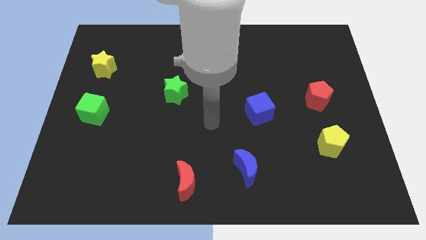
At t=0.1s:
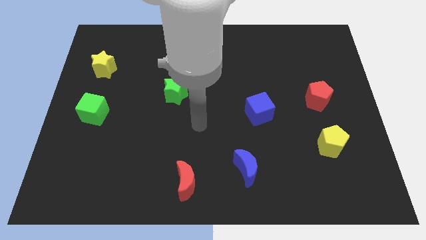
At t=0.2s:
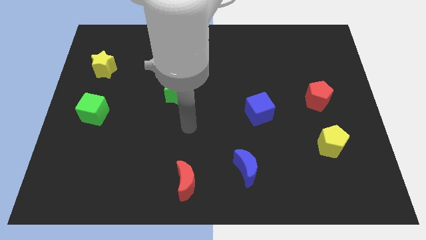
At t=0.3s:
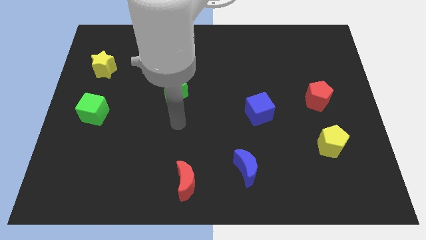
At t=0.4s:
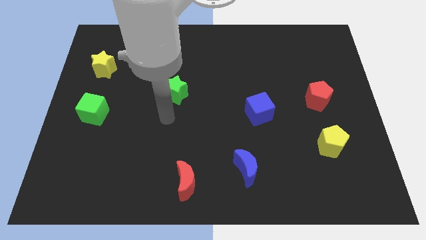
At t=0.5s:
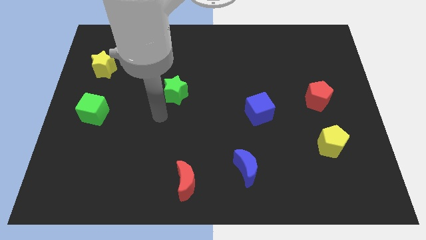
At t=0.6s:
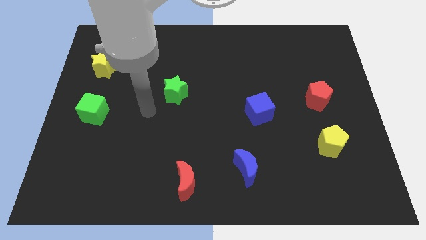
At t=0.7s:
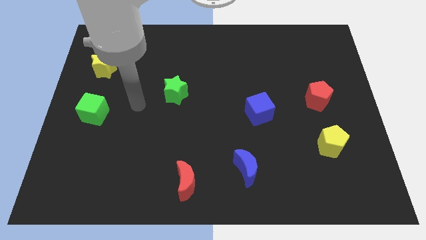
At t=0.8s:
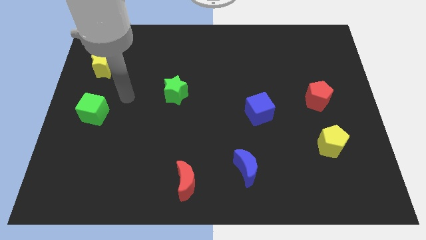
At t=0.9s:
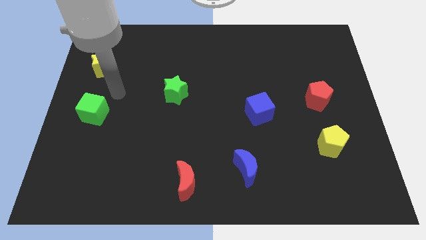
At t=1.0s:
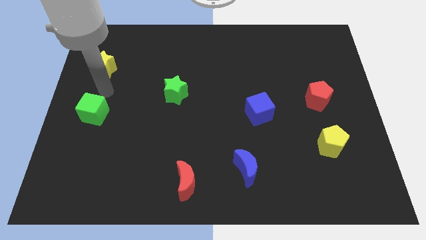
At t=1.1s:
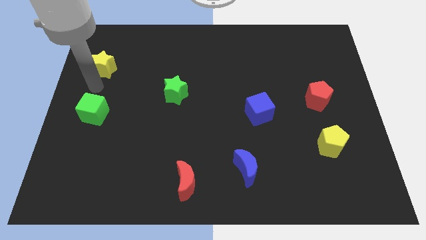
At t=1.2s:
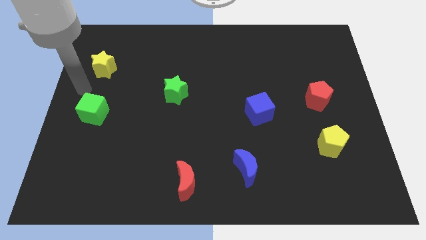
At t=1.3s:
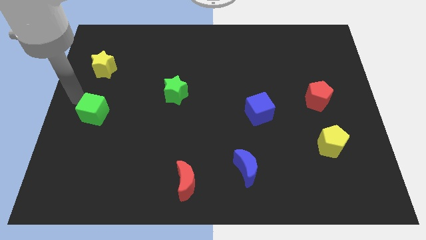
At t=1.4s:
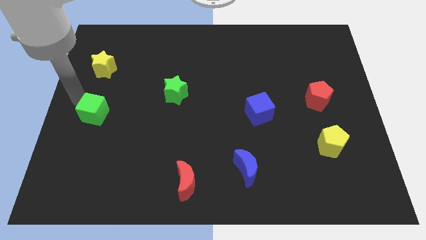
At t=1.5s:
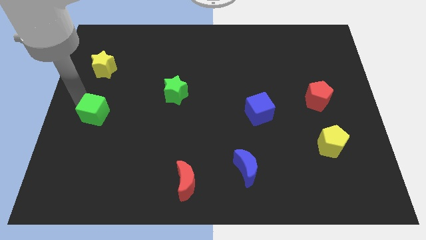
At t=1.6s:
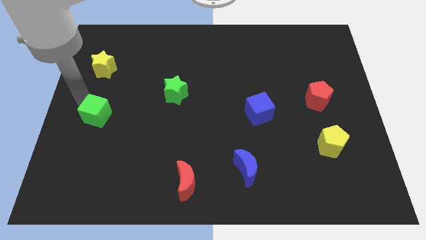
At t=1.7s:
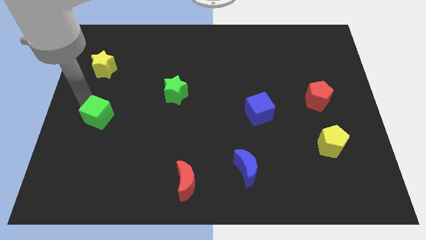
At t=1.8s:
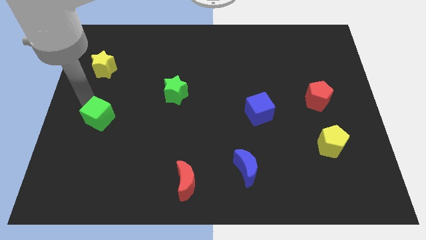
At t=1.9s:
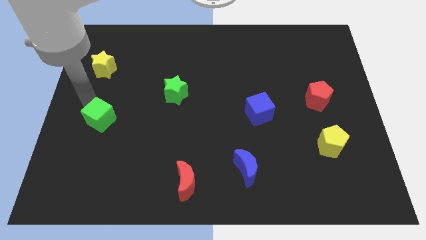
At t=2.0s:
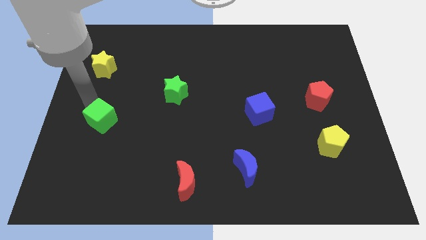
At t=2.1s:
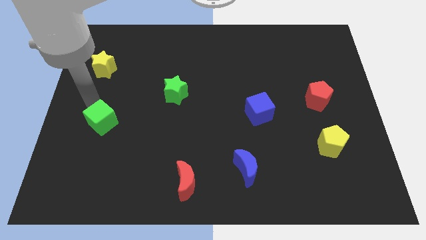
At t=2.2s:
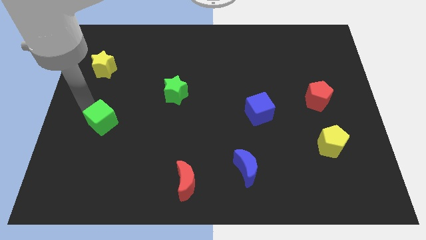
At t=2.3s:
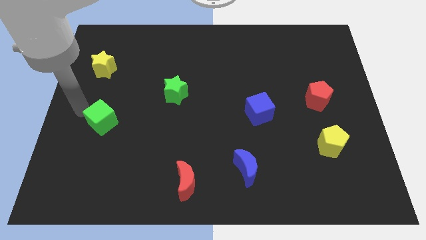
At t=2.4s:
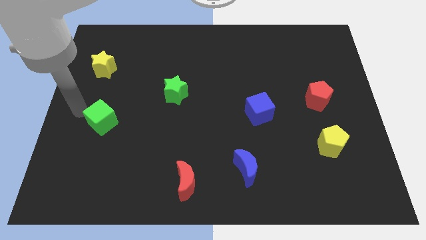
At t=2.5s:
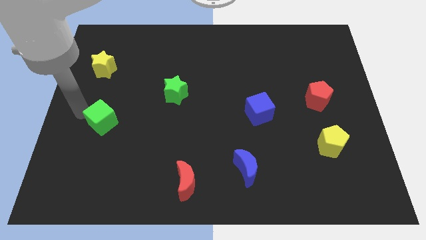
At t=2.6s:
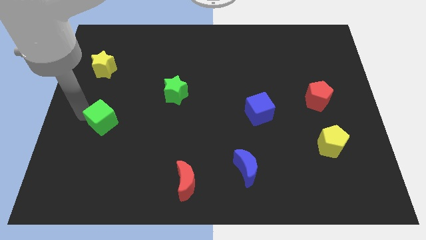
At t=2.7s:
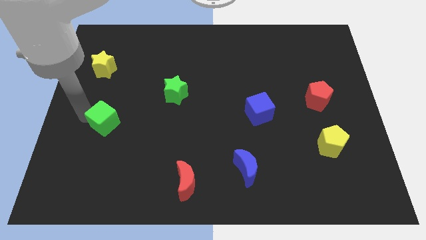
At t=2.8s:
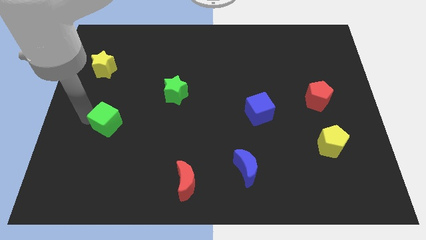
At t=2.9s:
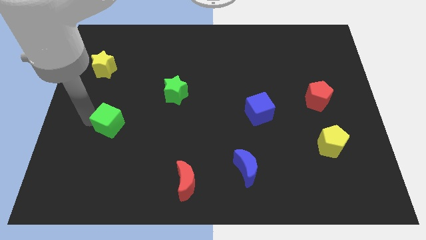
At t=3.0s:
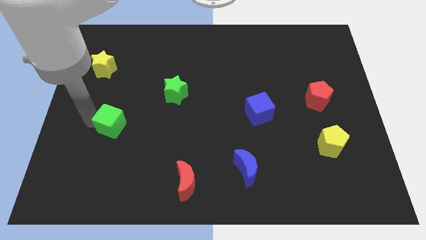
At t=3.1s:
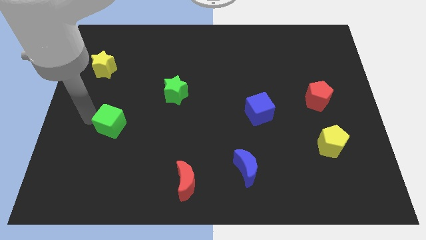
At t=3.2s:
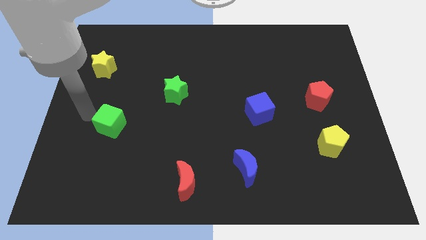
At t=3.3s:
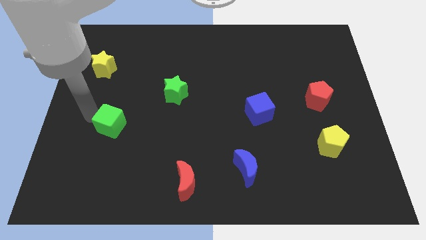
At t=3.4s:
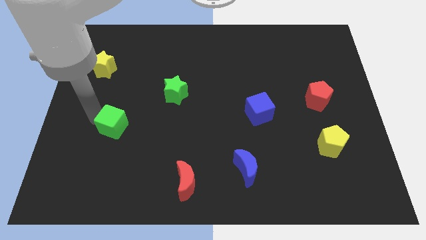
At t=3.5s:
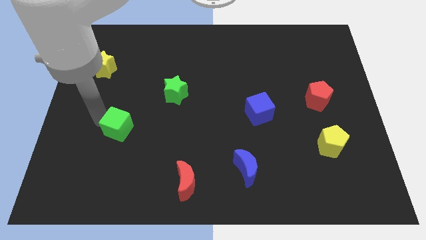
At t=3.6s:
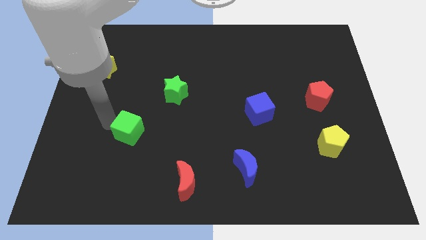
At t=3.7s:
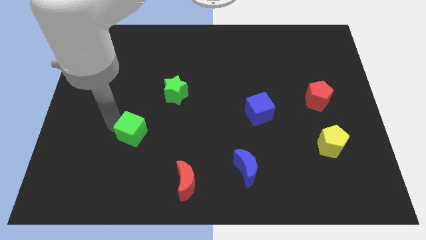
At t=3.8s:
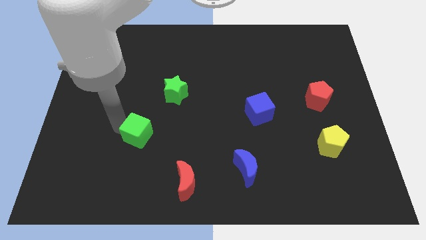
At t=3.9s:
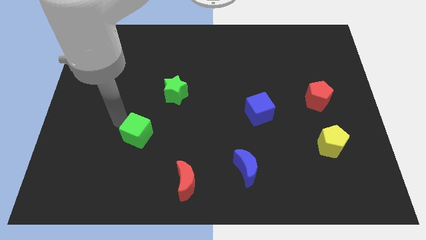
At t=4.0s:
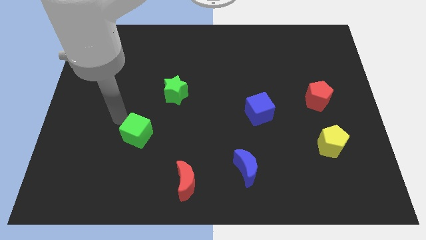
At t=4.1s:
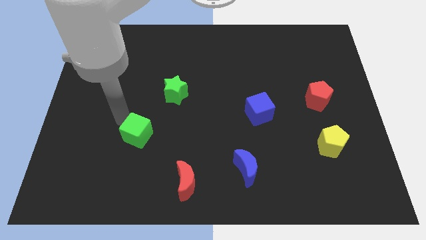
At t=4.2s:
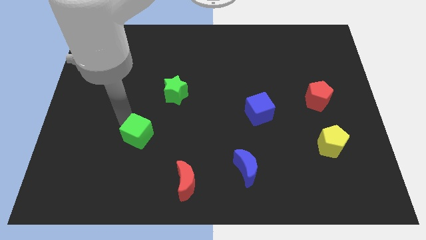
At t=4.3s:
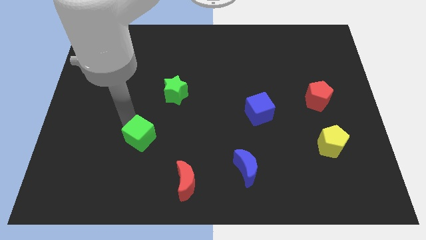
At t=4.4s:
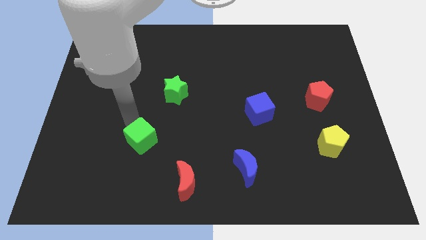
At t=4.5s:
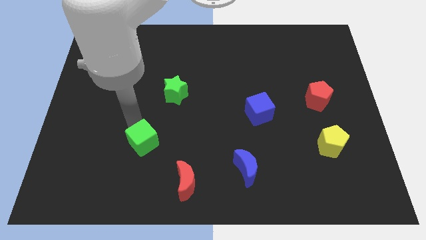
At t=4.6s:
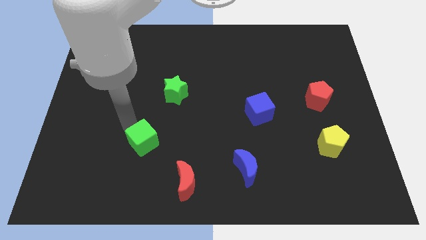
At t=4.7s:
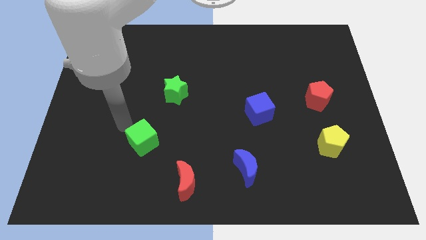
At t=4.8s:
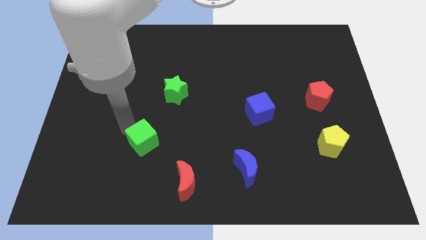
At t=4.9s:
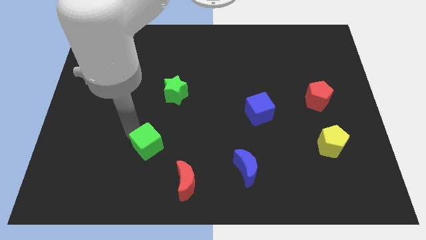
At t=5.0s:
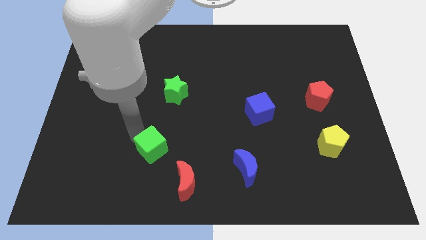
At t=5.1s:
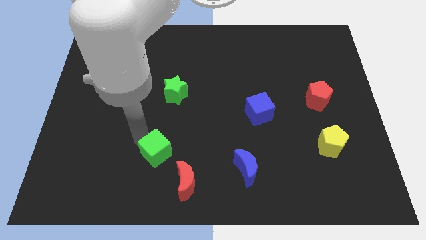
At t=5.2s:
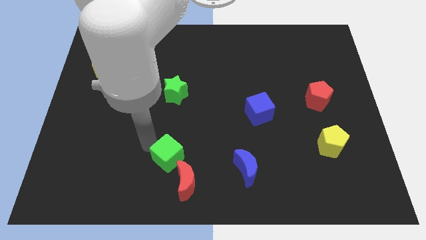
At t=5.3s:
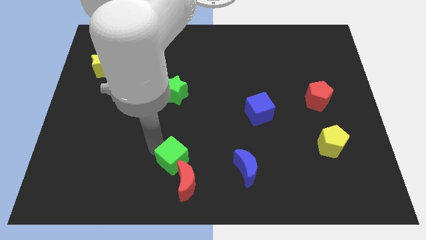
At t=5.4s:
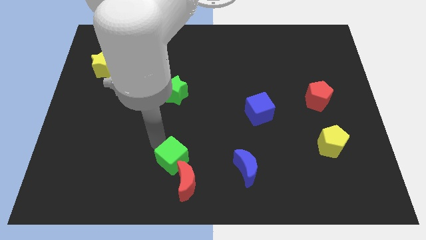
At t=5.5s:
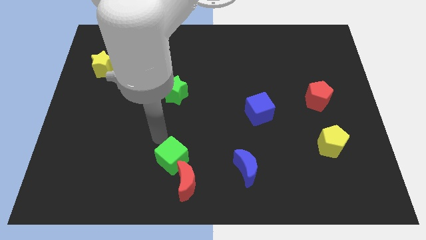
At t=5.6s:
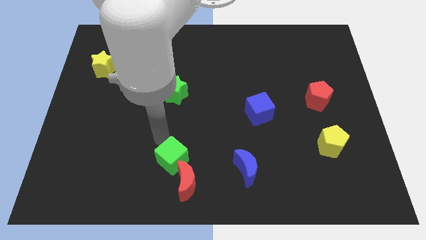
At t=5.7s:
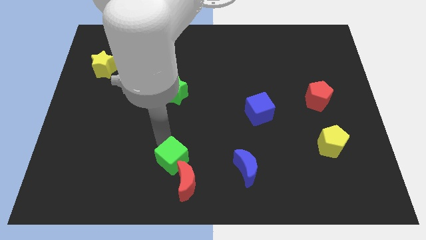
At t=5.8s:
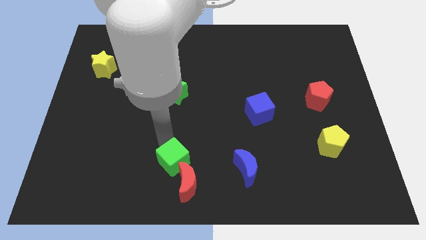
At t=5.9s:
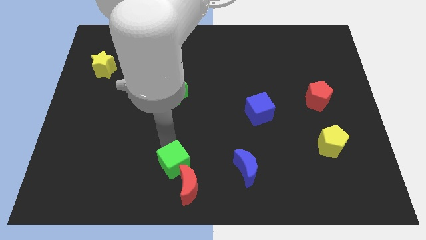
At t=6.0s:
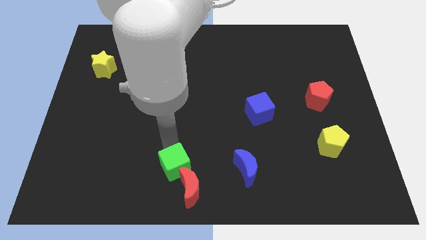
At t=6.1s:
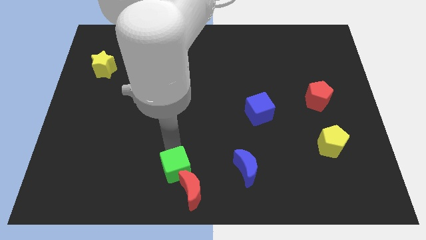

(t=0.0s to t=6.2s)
move the green cube close to the red moon

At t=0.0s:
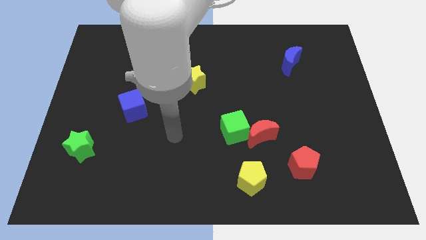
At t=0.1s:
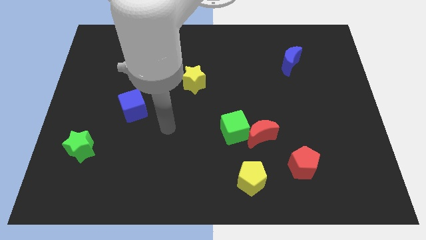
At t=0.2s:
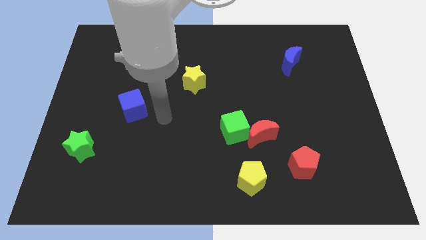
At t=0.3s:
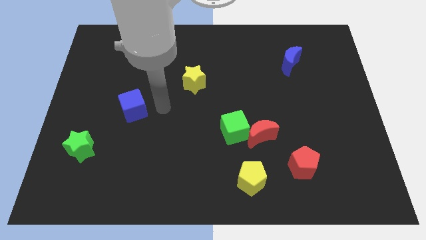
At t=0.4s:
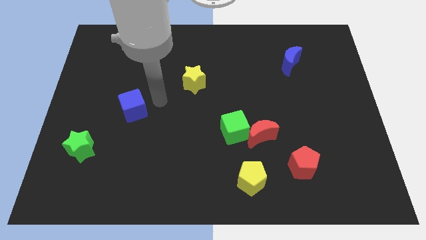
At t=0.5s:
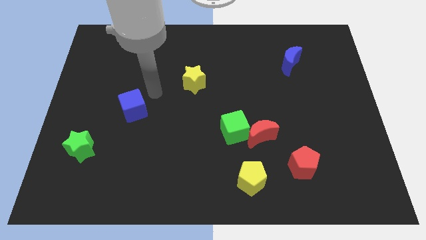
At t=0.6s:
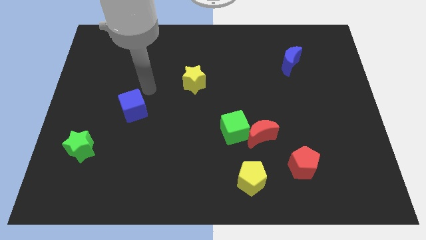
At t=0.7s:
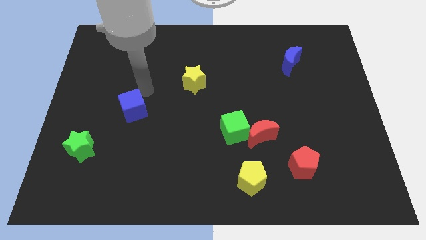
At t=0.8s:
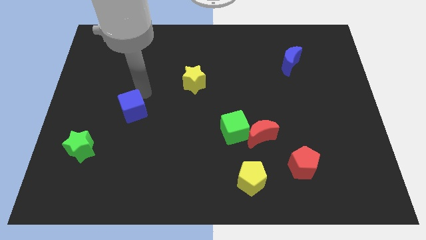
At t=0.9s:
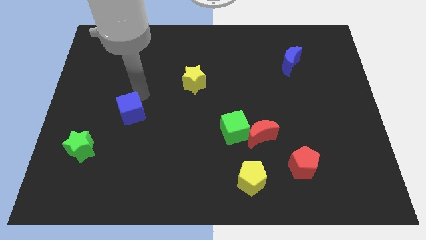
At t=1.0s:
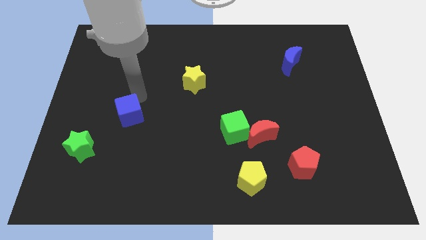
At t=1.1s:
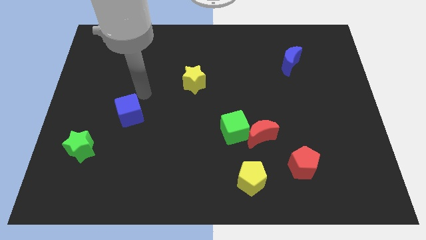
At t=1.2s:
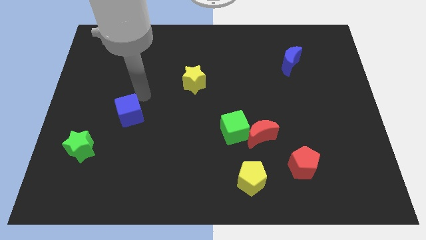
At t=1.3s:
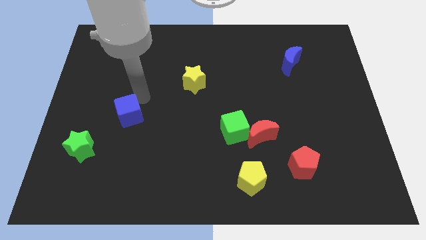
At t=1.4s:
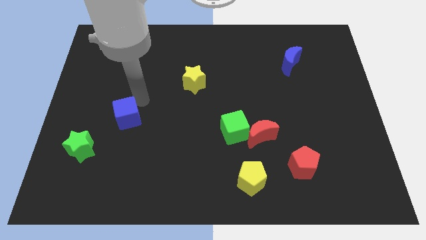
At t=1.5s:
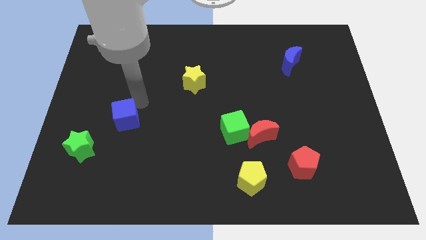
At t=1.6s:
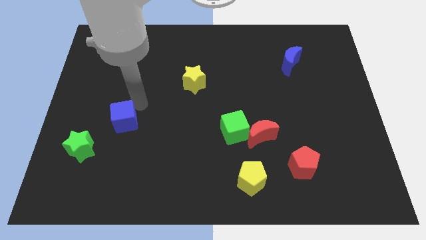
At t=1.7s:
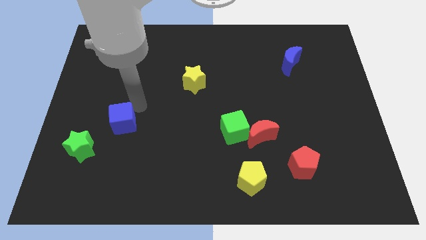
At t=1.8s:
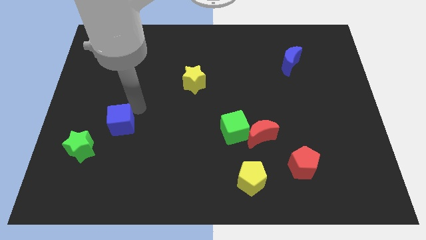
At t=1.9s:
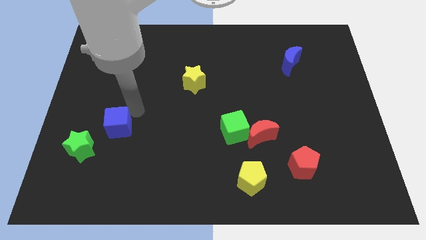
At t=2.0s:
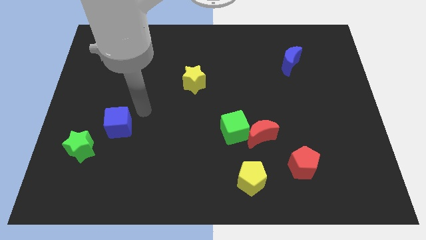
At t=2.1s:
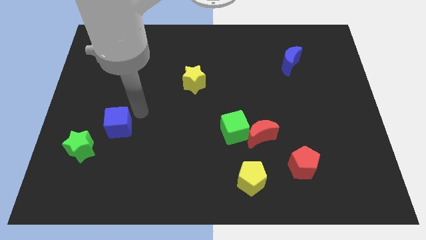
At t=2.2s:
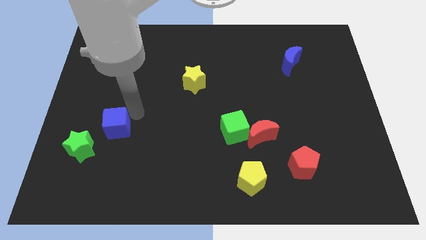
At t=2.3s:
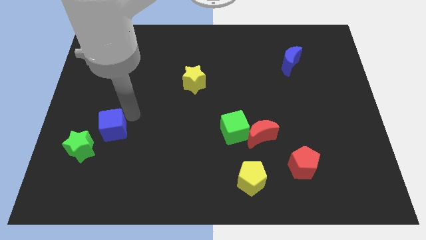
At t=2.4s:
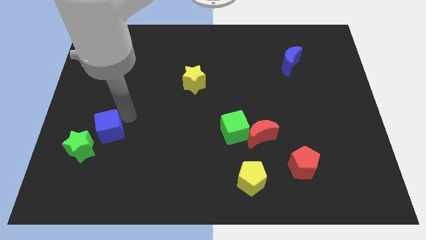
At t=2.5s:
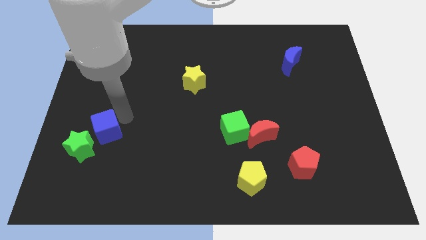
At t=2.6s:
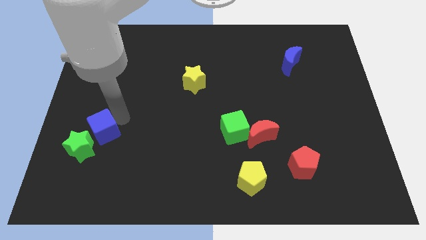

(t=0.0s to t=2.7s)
move the blue cube to the green star
